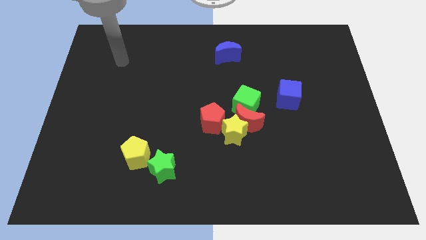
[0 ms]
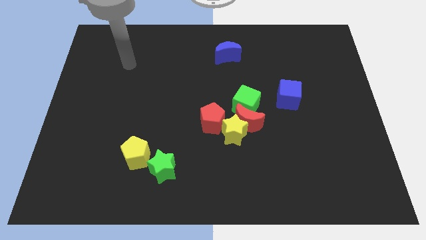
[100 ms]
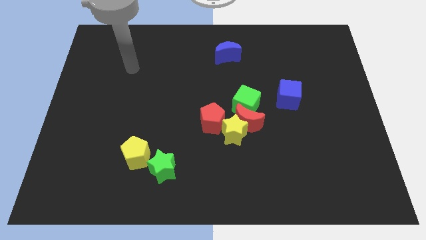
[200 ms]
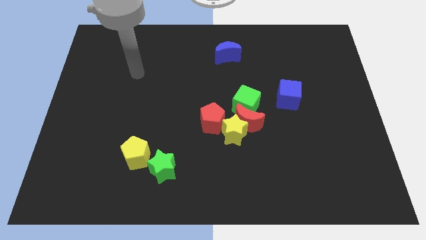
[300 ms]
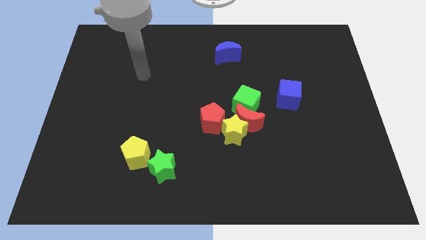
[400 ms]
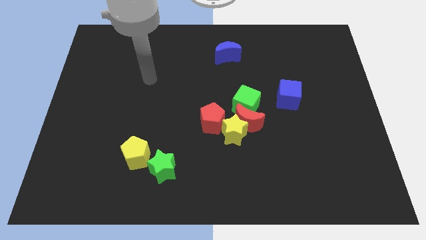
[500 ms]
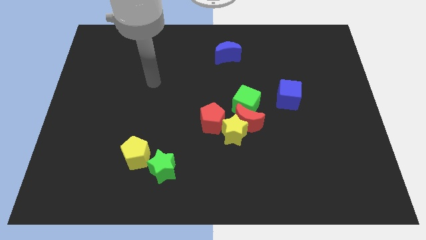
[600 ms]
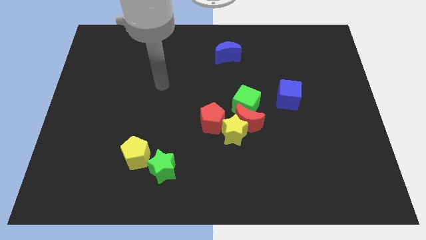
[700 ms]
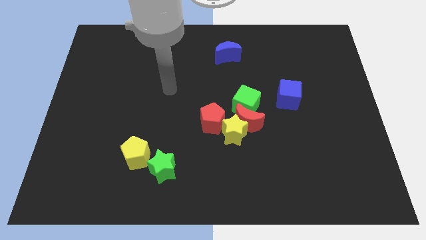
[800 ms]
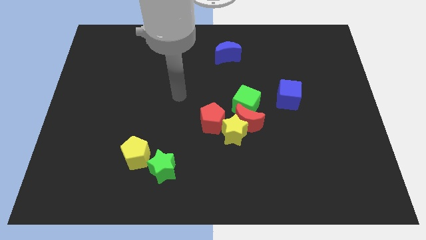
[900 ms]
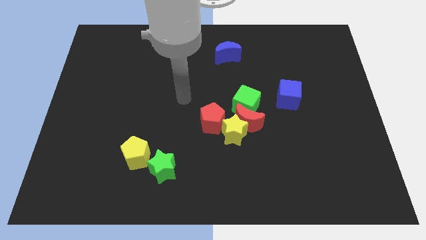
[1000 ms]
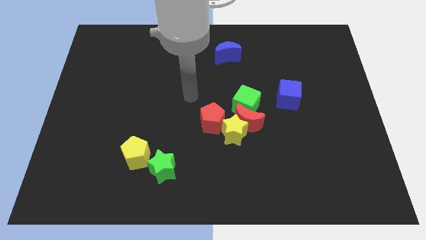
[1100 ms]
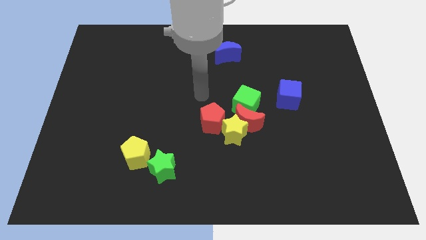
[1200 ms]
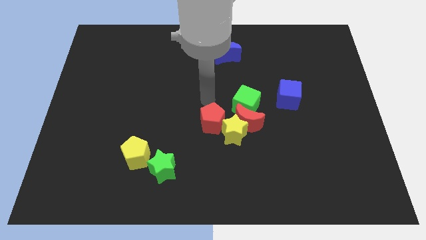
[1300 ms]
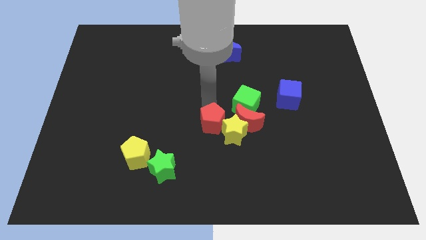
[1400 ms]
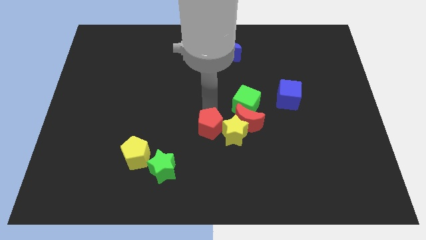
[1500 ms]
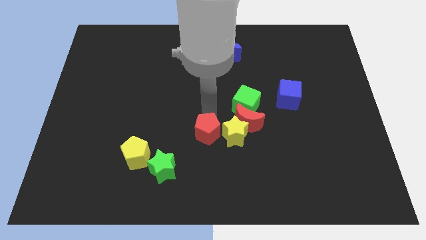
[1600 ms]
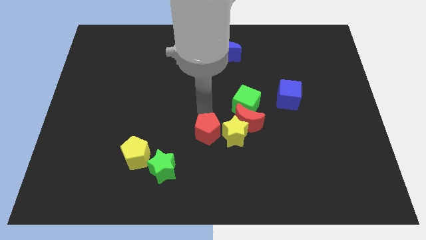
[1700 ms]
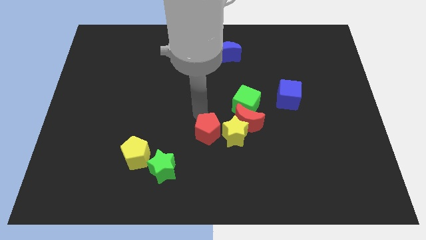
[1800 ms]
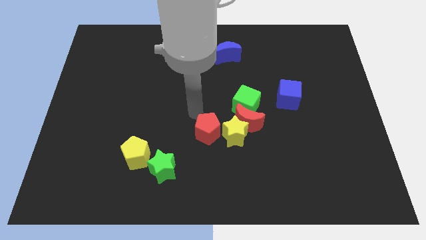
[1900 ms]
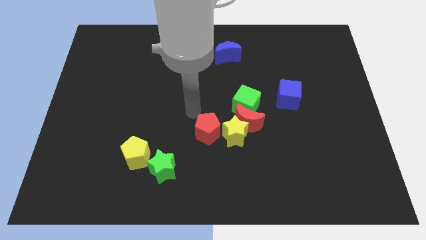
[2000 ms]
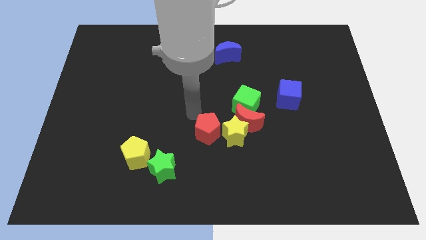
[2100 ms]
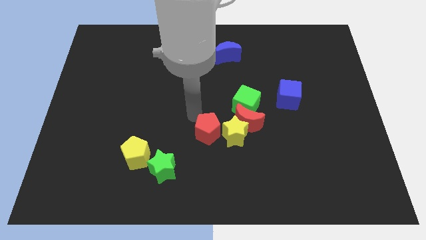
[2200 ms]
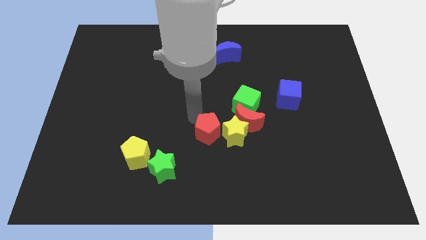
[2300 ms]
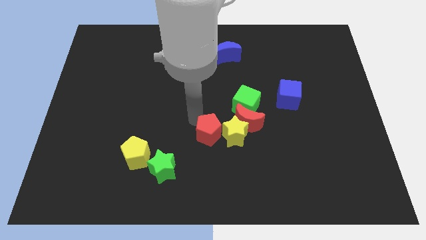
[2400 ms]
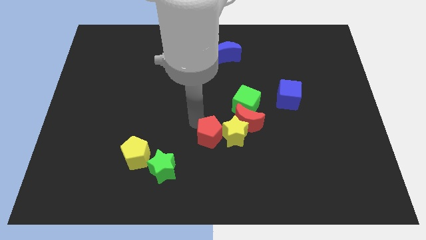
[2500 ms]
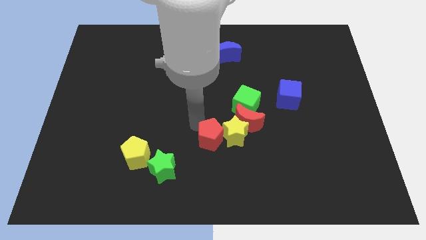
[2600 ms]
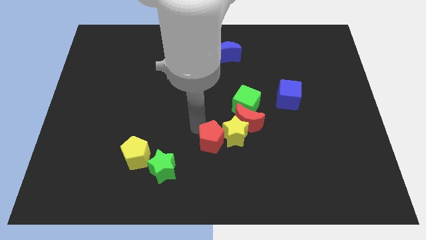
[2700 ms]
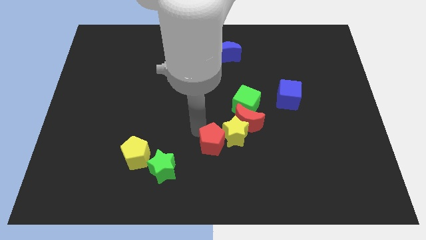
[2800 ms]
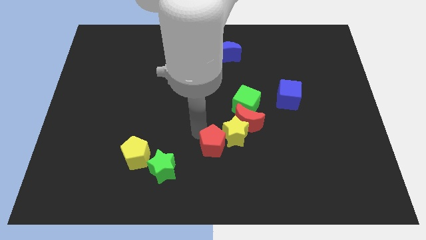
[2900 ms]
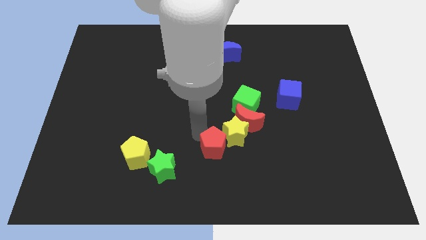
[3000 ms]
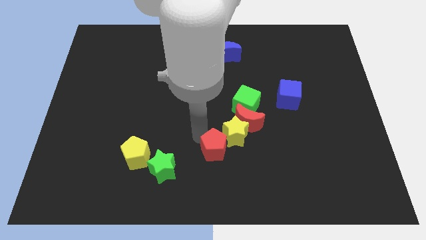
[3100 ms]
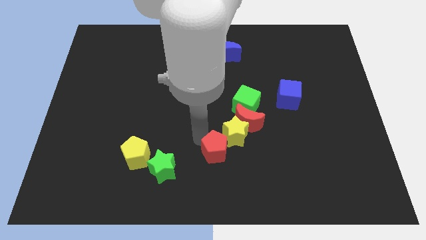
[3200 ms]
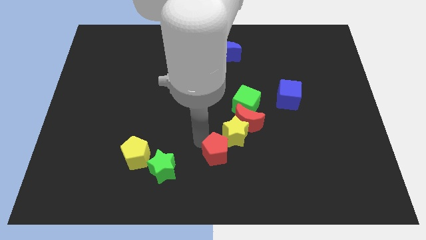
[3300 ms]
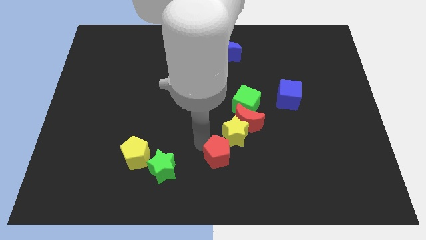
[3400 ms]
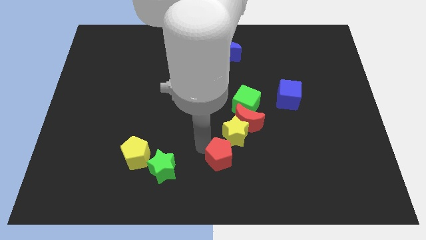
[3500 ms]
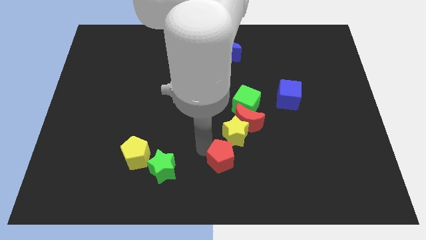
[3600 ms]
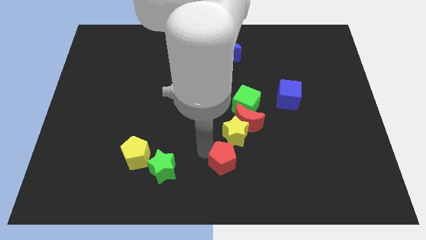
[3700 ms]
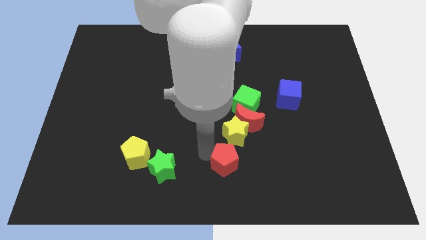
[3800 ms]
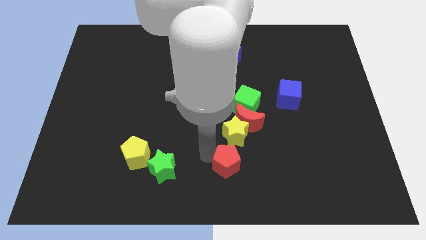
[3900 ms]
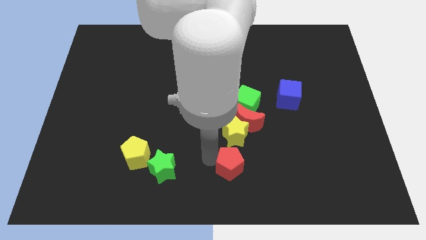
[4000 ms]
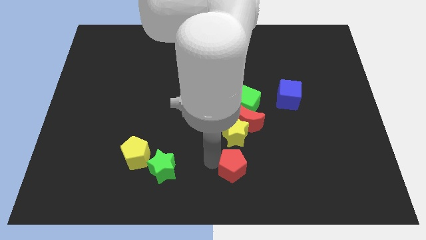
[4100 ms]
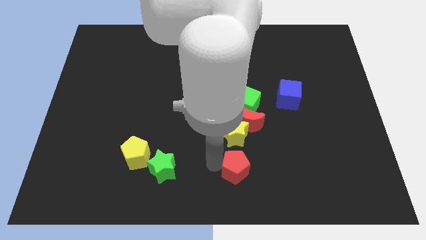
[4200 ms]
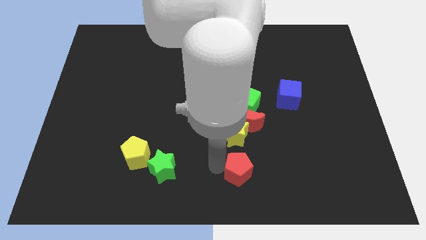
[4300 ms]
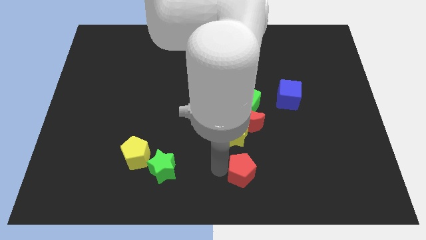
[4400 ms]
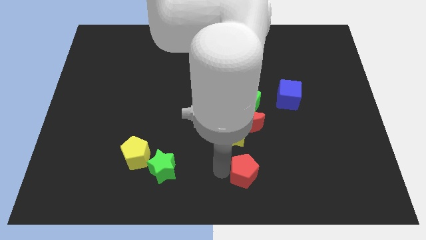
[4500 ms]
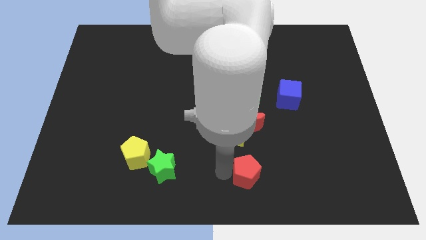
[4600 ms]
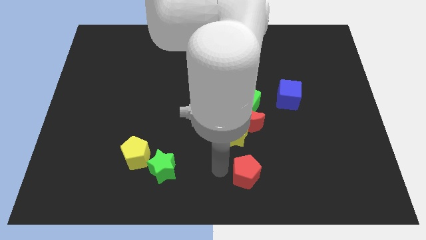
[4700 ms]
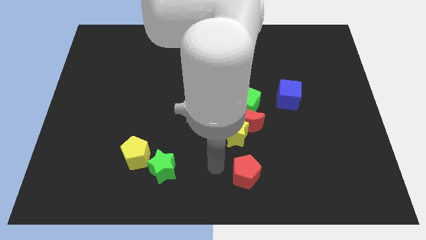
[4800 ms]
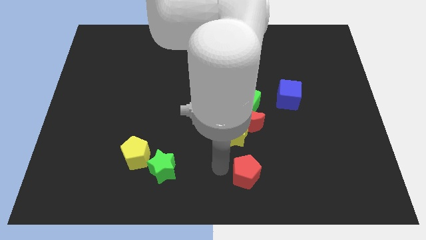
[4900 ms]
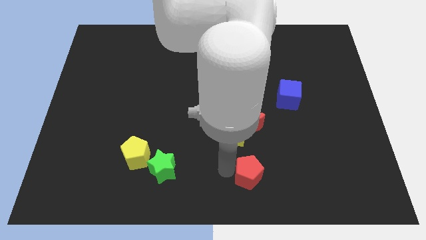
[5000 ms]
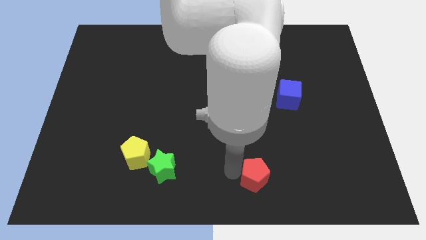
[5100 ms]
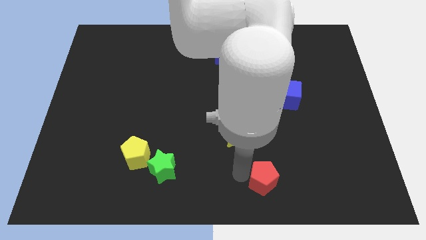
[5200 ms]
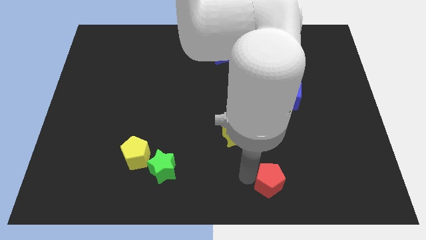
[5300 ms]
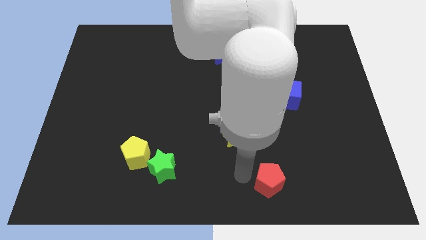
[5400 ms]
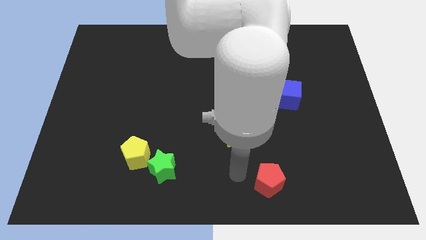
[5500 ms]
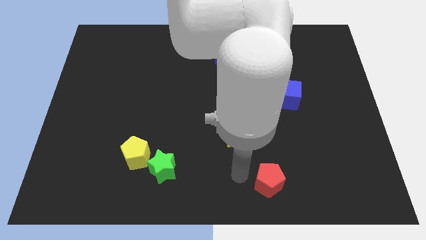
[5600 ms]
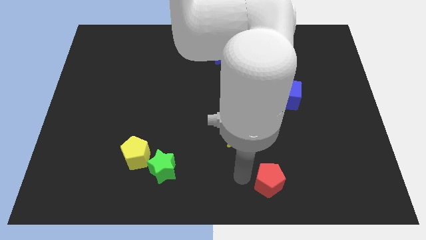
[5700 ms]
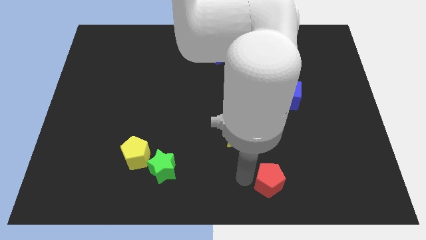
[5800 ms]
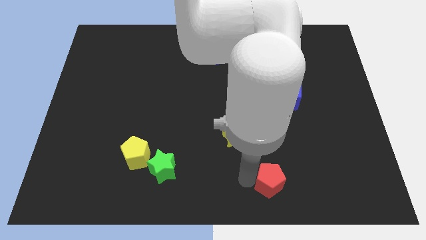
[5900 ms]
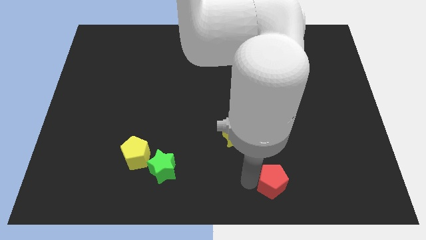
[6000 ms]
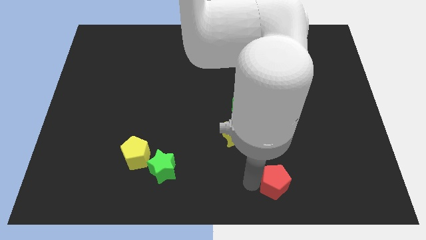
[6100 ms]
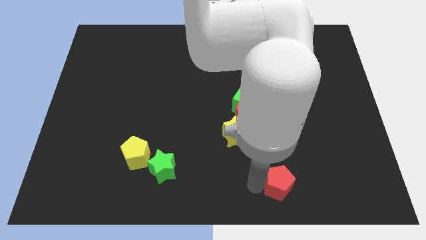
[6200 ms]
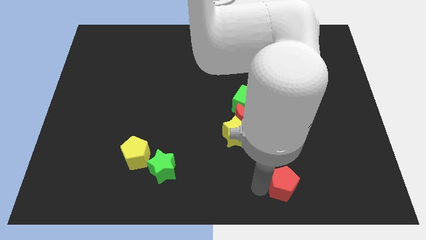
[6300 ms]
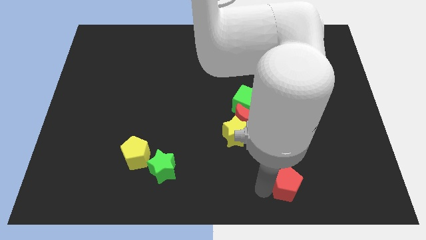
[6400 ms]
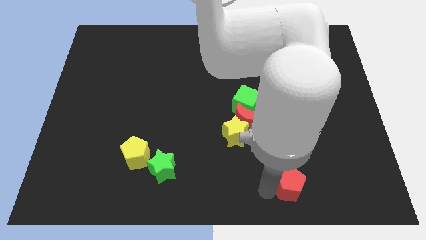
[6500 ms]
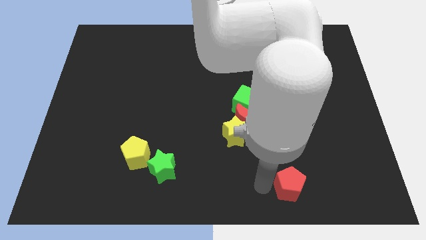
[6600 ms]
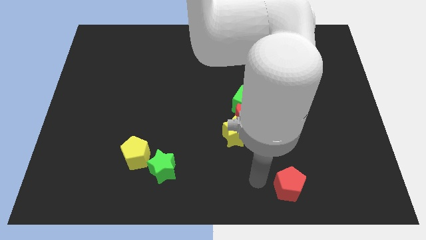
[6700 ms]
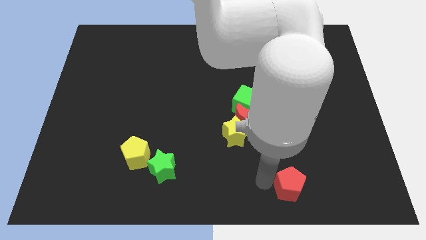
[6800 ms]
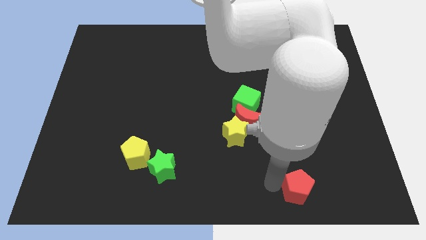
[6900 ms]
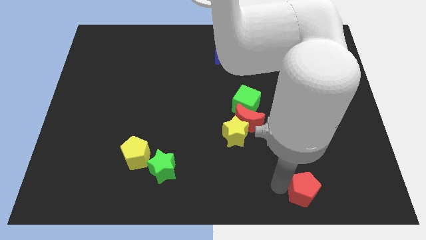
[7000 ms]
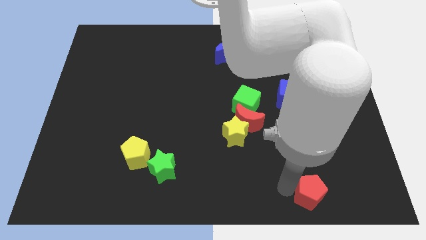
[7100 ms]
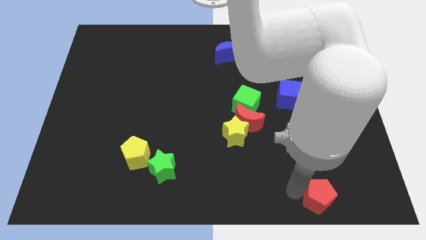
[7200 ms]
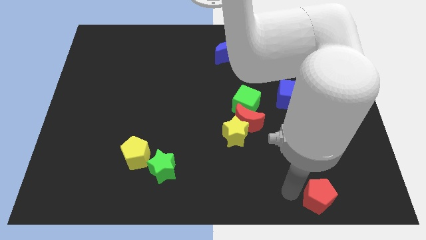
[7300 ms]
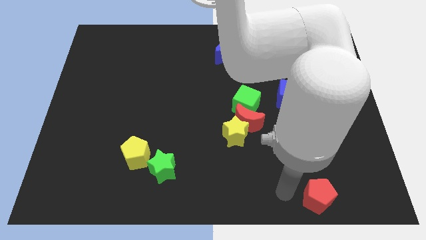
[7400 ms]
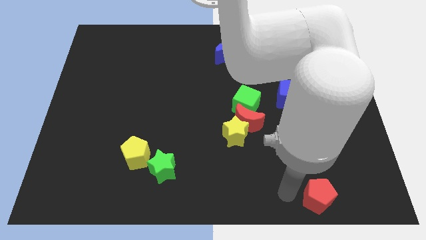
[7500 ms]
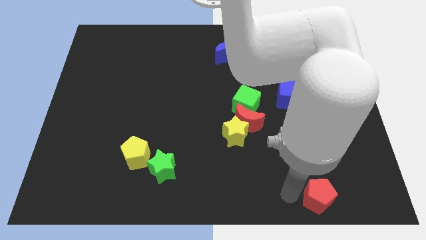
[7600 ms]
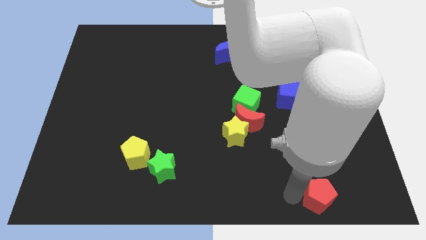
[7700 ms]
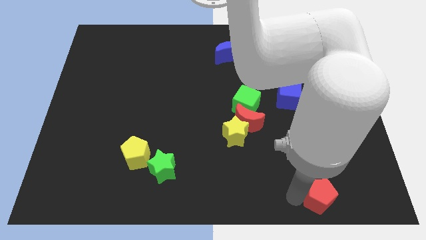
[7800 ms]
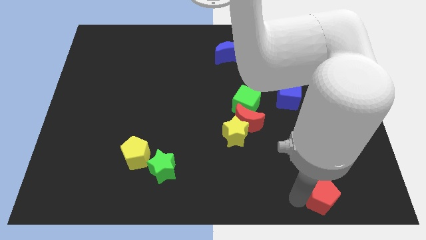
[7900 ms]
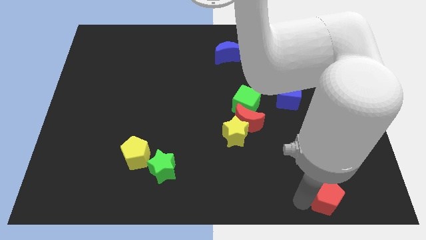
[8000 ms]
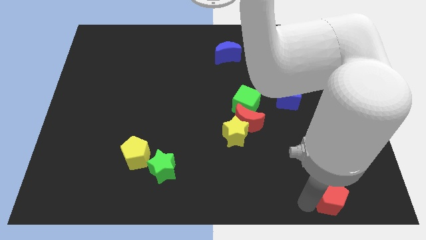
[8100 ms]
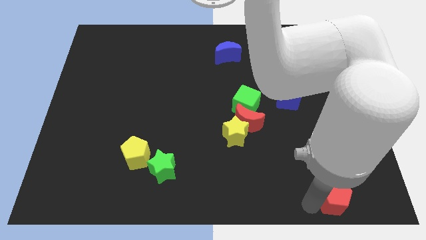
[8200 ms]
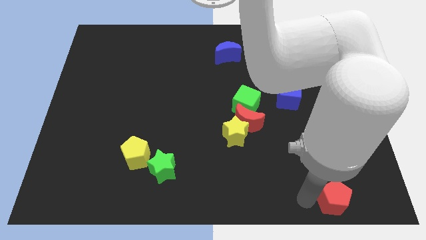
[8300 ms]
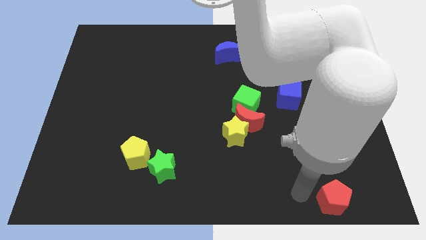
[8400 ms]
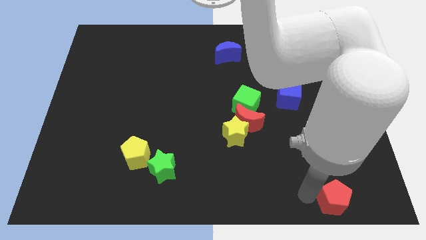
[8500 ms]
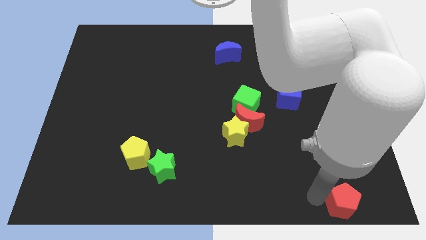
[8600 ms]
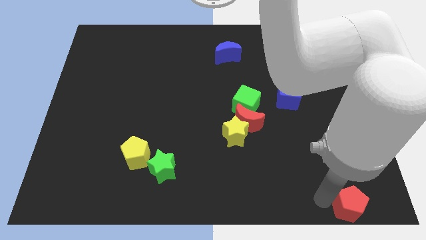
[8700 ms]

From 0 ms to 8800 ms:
slide the red pentagon to the bottom right
